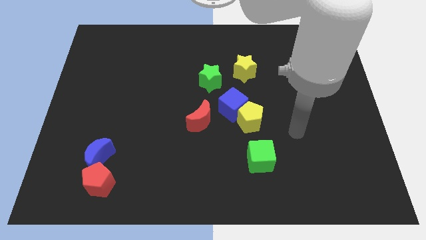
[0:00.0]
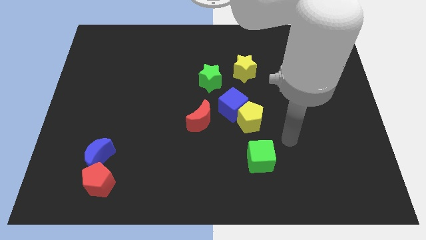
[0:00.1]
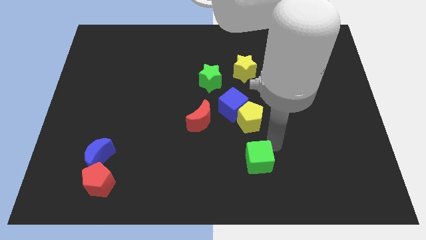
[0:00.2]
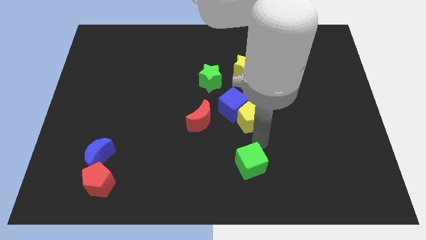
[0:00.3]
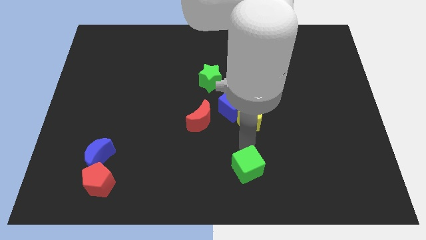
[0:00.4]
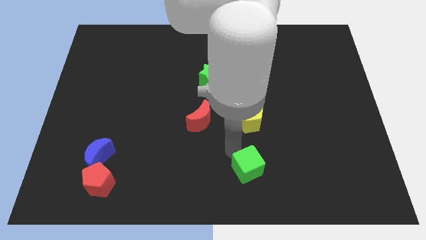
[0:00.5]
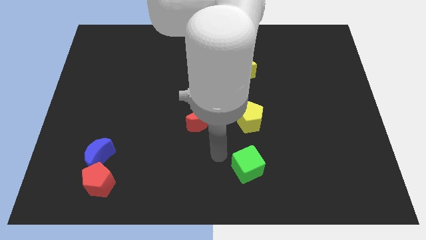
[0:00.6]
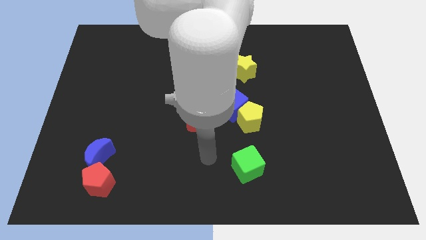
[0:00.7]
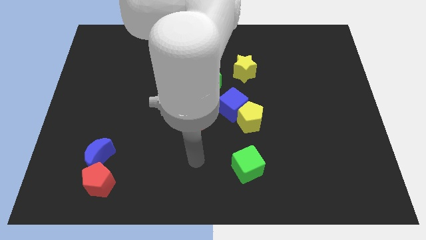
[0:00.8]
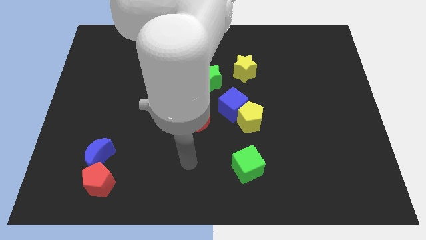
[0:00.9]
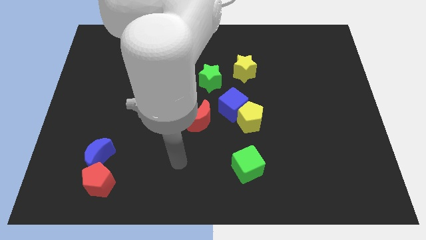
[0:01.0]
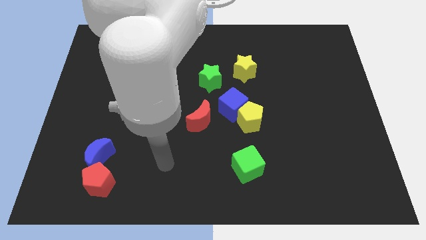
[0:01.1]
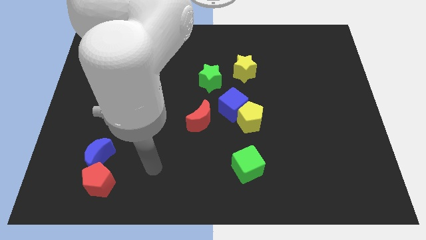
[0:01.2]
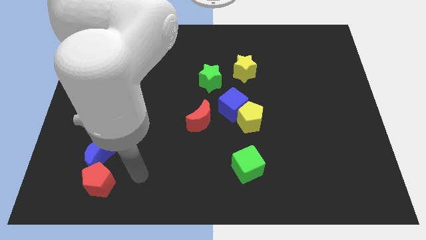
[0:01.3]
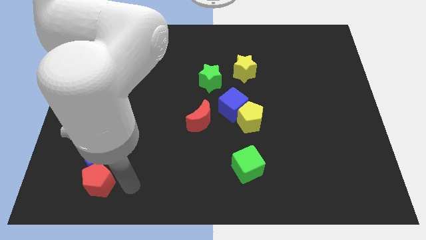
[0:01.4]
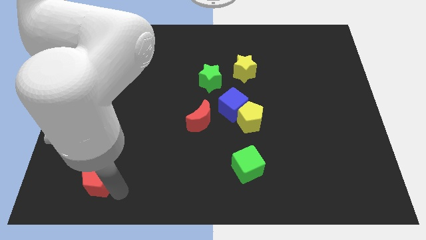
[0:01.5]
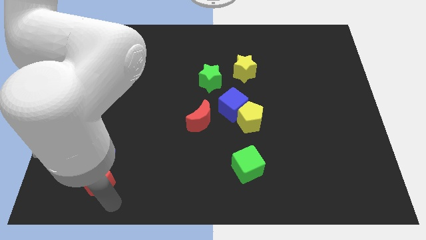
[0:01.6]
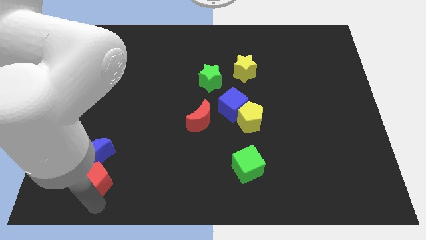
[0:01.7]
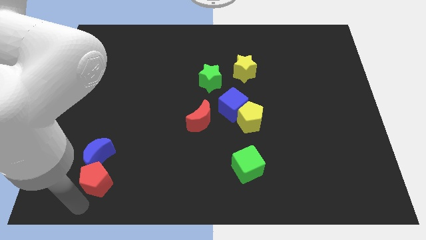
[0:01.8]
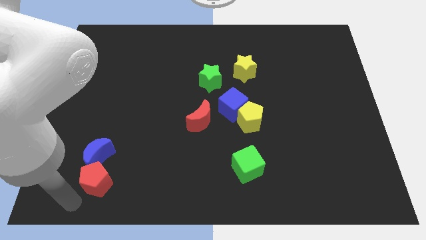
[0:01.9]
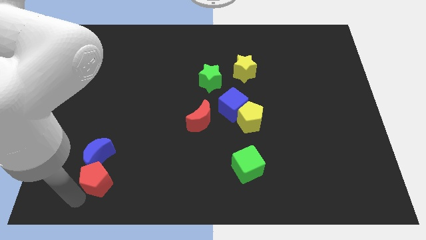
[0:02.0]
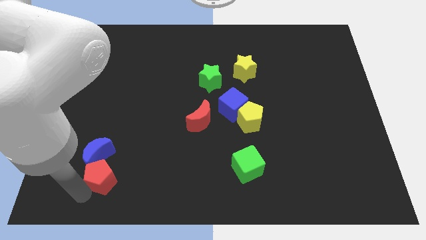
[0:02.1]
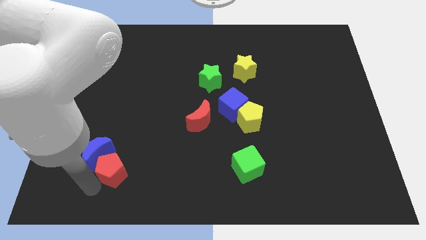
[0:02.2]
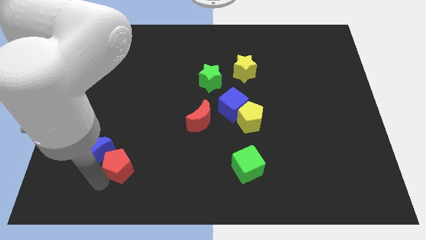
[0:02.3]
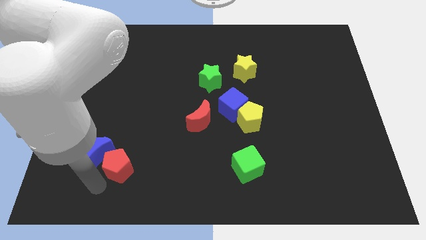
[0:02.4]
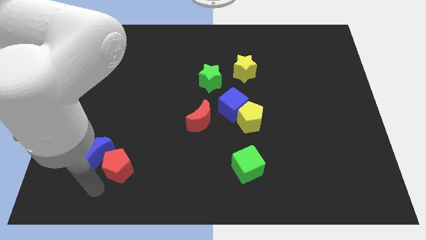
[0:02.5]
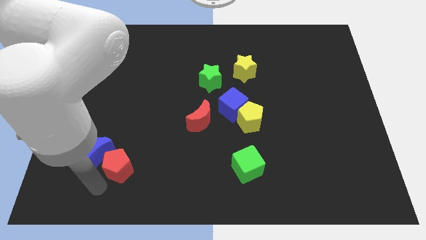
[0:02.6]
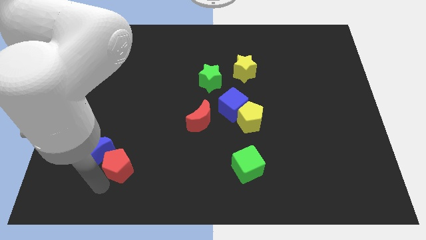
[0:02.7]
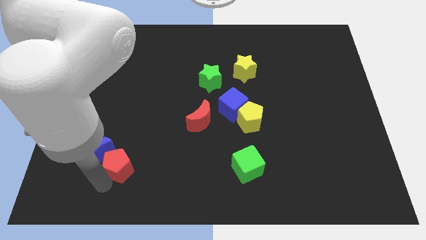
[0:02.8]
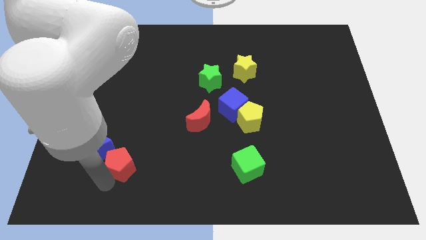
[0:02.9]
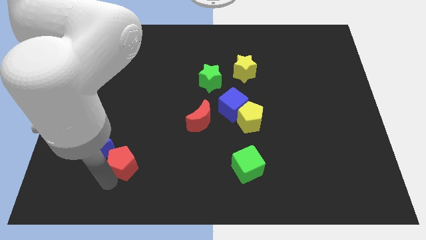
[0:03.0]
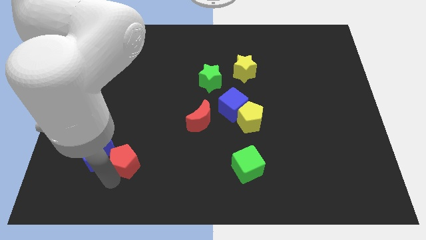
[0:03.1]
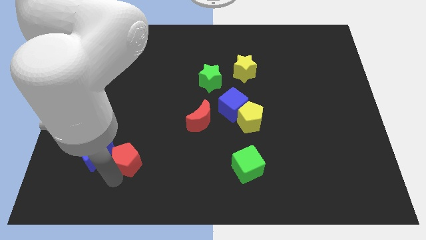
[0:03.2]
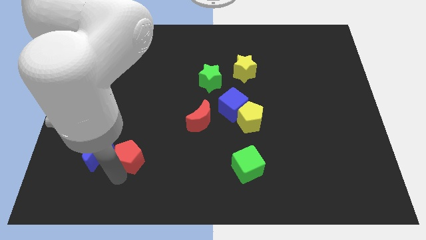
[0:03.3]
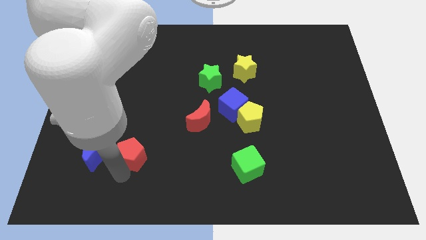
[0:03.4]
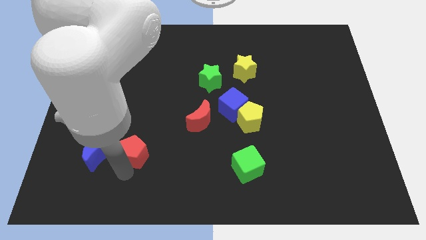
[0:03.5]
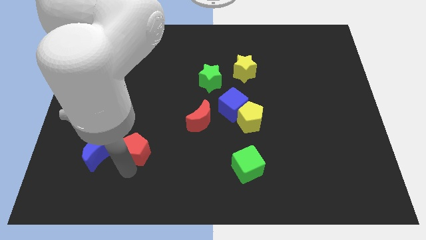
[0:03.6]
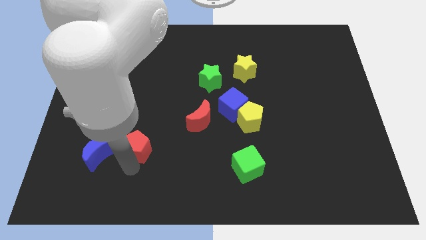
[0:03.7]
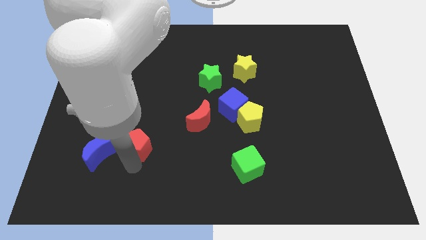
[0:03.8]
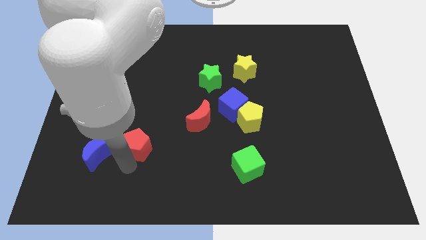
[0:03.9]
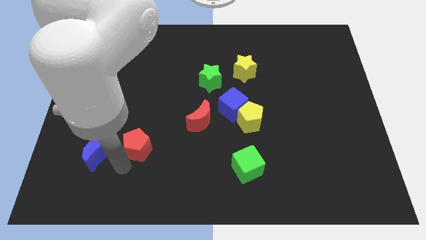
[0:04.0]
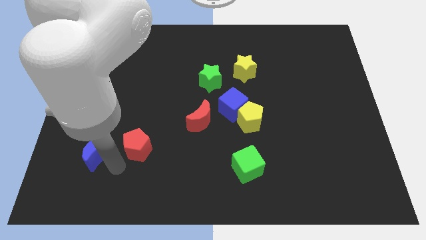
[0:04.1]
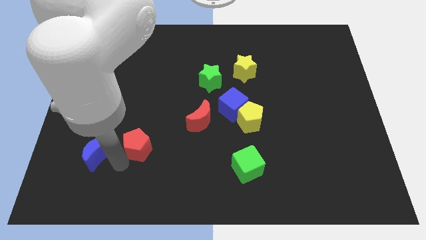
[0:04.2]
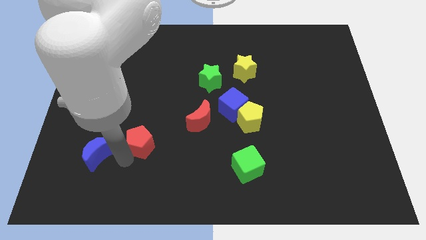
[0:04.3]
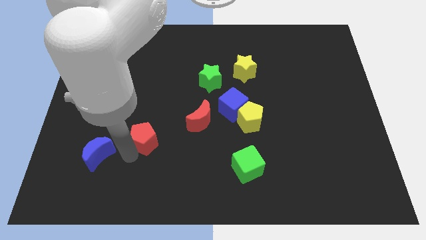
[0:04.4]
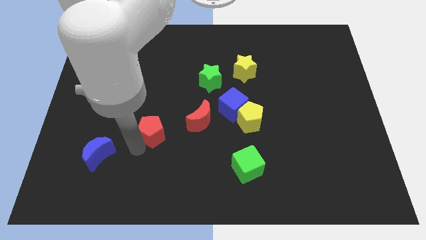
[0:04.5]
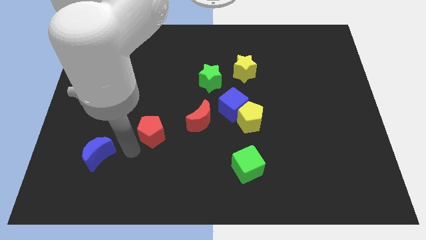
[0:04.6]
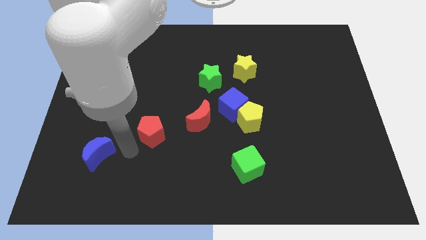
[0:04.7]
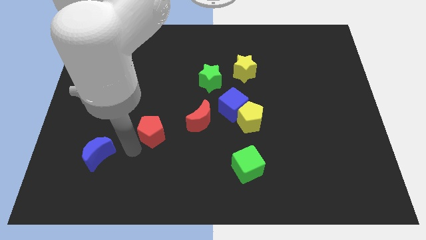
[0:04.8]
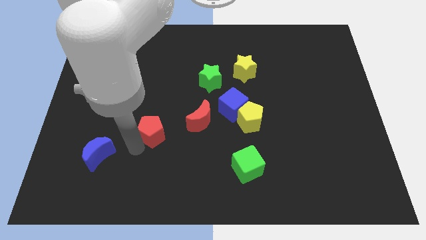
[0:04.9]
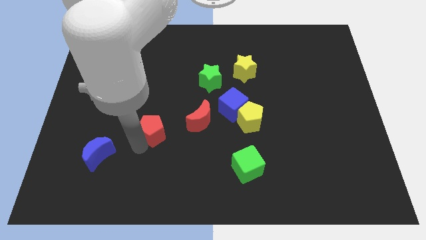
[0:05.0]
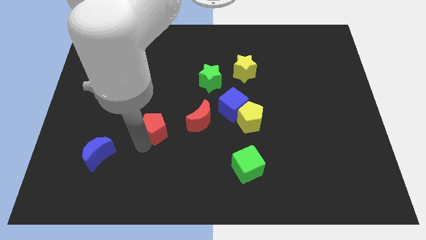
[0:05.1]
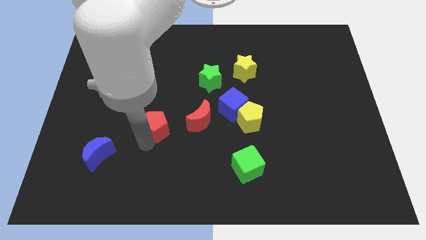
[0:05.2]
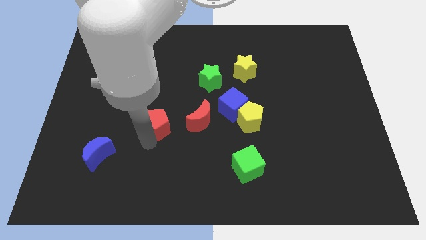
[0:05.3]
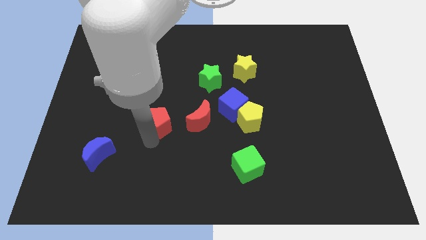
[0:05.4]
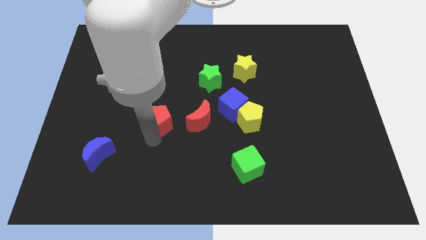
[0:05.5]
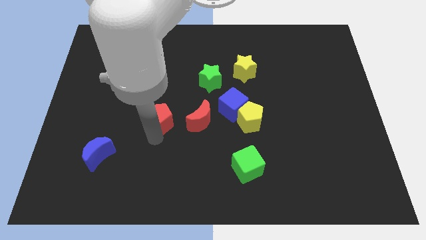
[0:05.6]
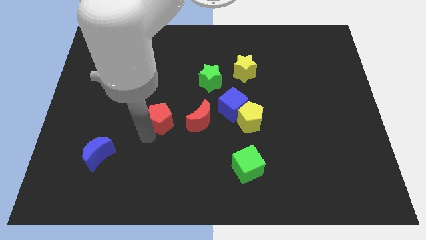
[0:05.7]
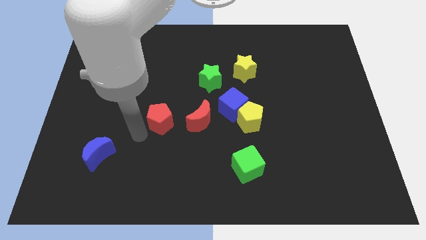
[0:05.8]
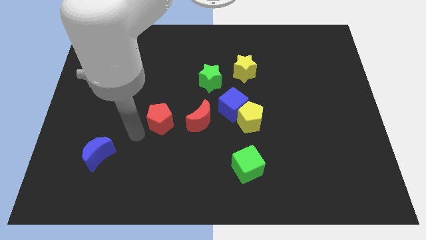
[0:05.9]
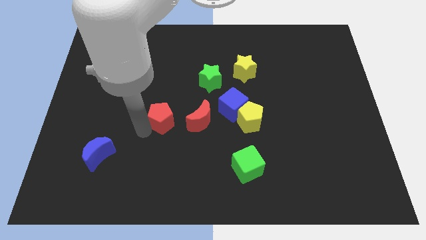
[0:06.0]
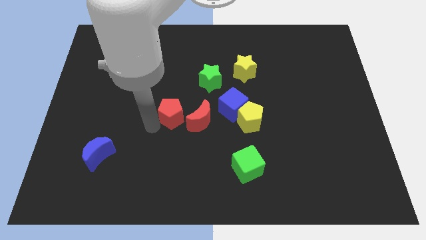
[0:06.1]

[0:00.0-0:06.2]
slide the red pentagon to the center of the board

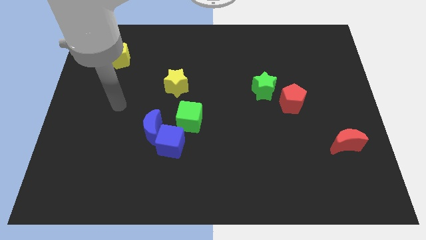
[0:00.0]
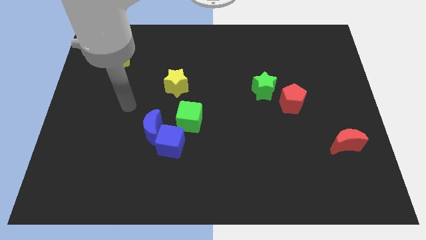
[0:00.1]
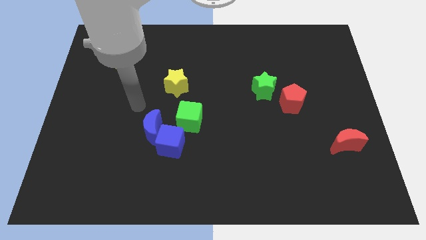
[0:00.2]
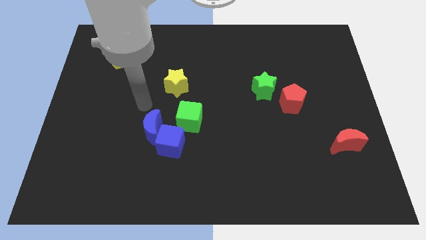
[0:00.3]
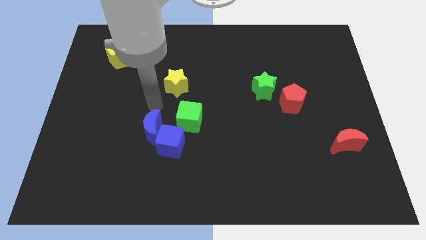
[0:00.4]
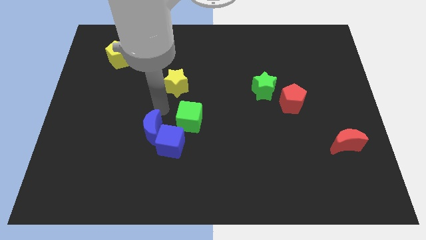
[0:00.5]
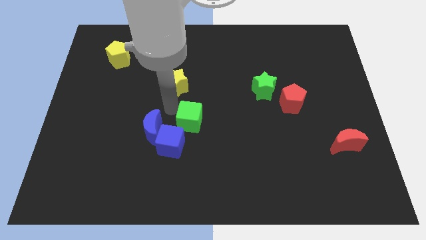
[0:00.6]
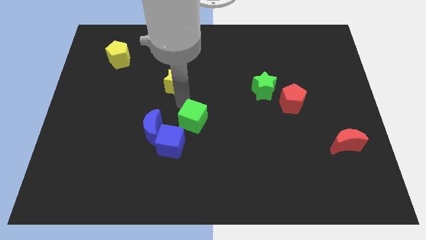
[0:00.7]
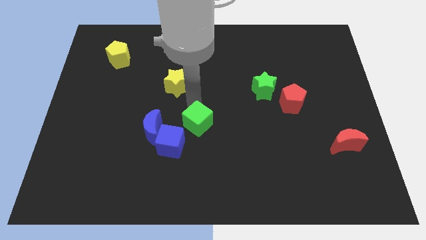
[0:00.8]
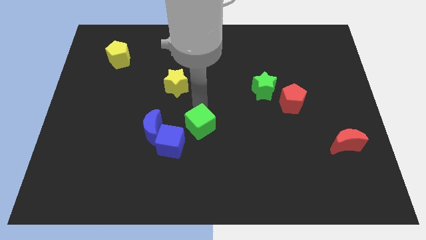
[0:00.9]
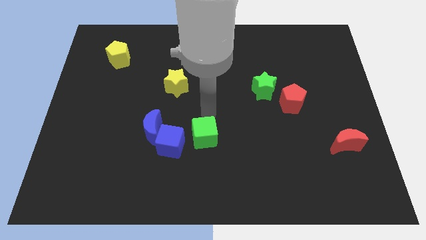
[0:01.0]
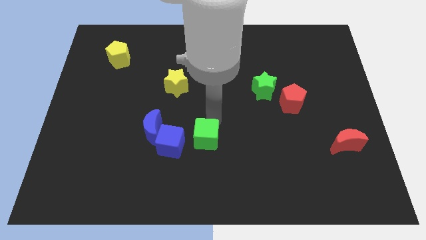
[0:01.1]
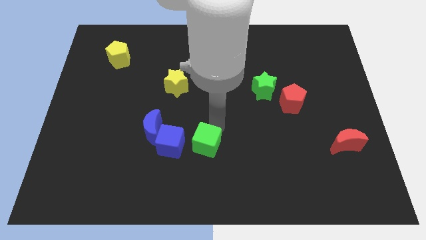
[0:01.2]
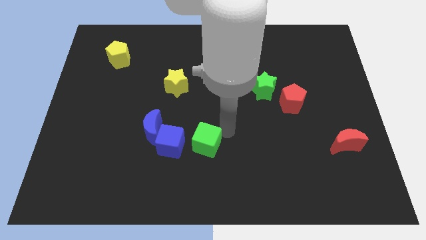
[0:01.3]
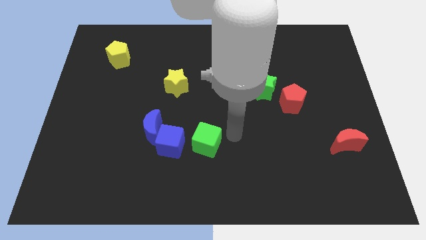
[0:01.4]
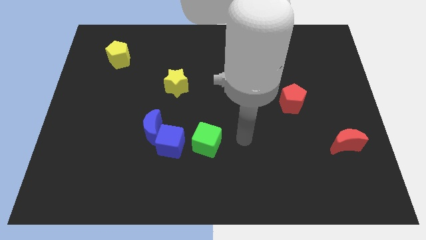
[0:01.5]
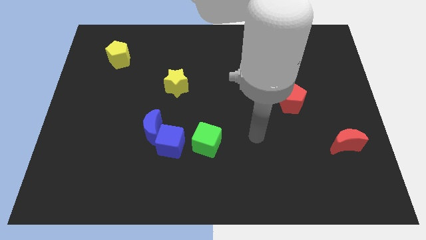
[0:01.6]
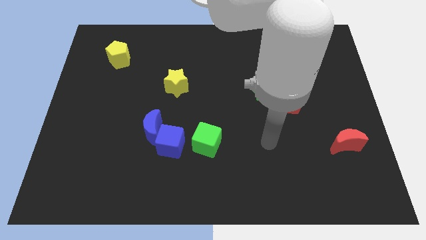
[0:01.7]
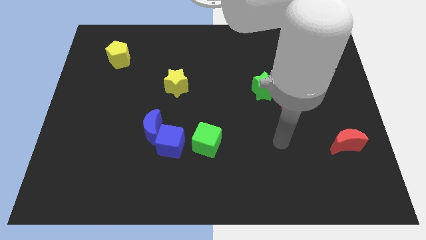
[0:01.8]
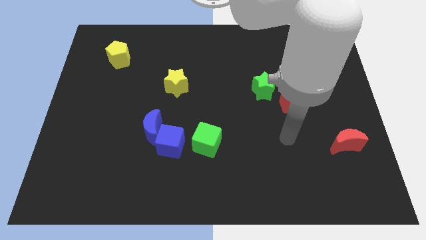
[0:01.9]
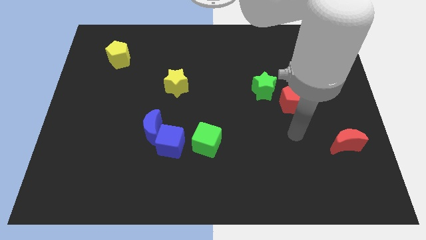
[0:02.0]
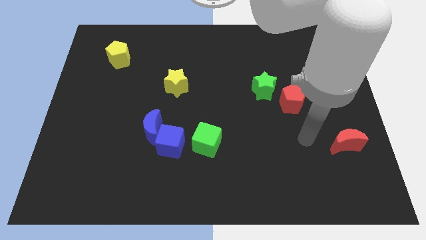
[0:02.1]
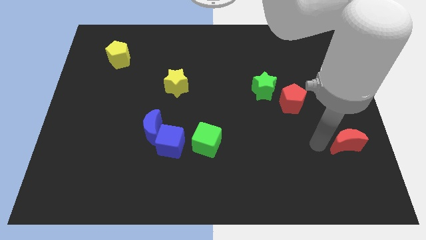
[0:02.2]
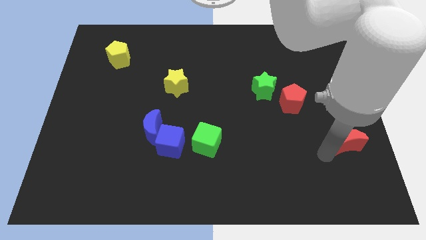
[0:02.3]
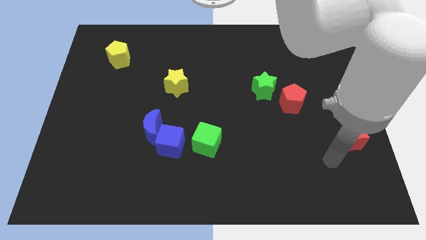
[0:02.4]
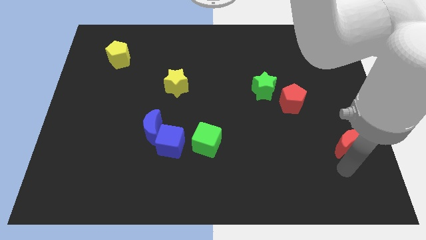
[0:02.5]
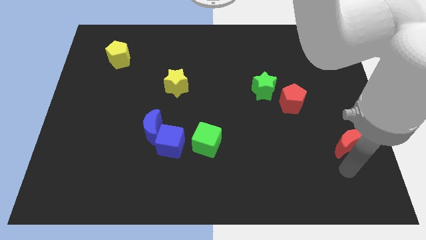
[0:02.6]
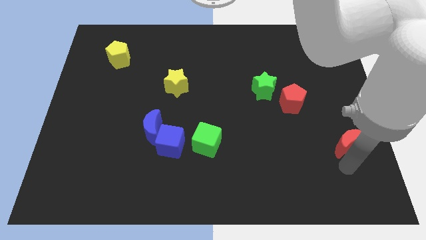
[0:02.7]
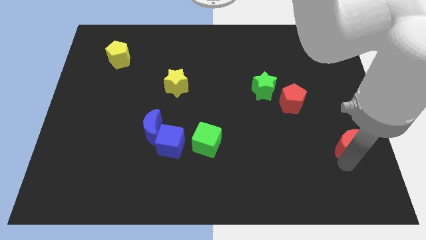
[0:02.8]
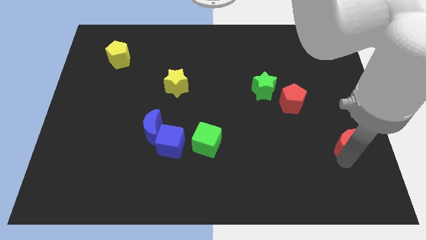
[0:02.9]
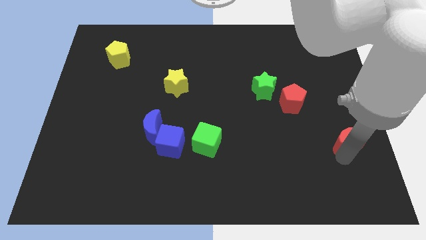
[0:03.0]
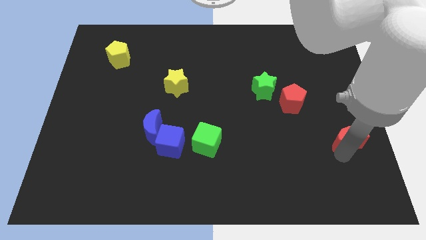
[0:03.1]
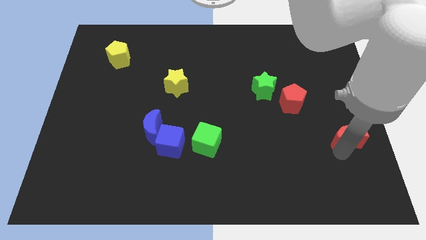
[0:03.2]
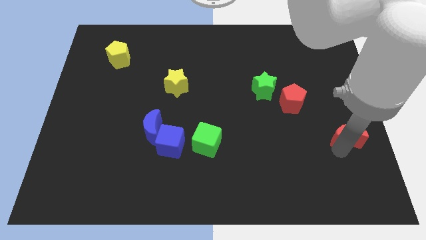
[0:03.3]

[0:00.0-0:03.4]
push the red moon to the right side
